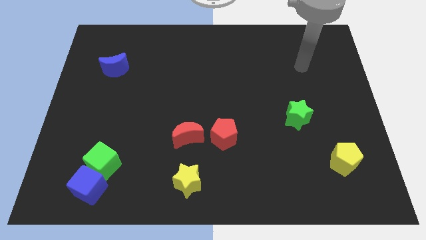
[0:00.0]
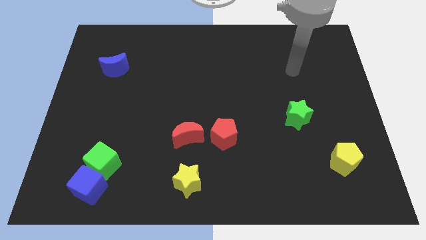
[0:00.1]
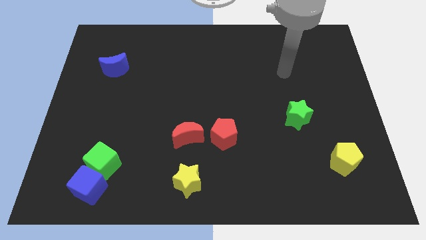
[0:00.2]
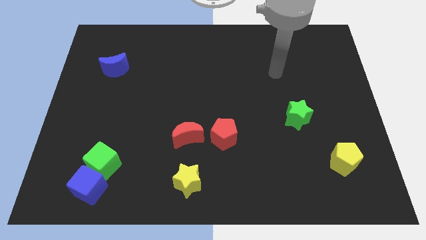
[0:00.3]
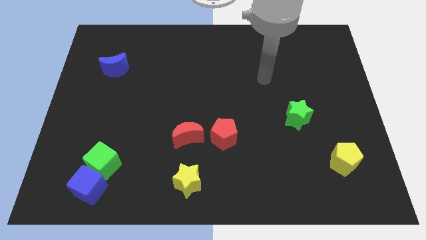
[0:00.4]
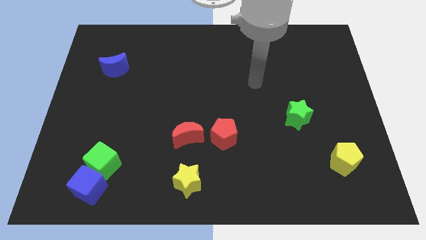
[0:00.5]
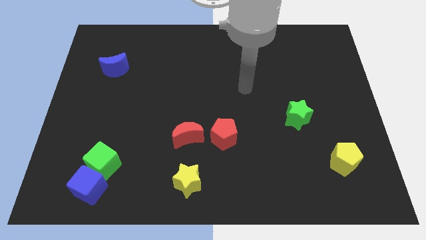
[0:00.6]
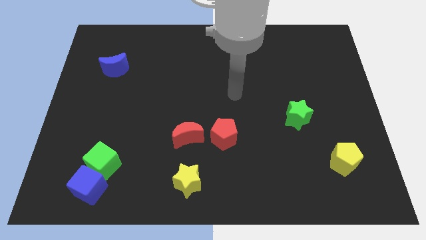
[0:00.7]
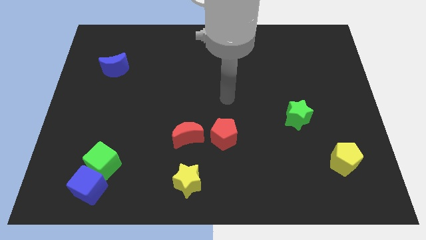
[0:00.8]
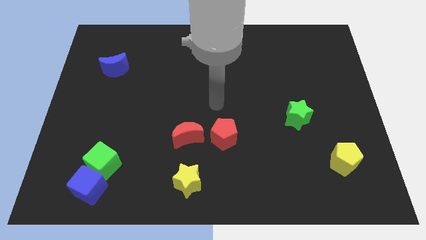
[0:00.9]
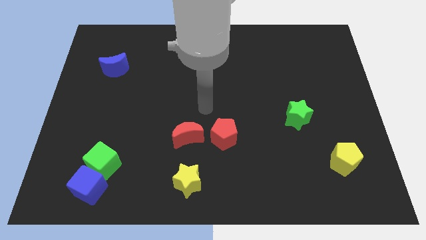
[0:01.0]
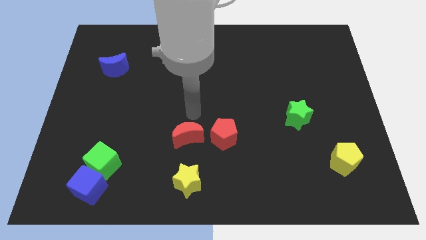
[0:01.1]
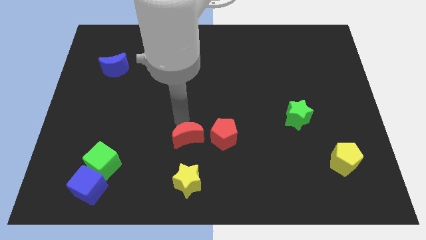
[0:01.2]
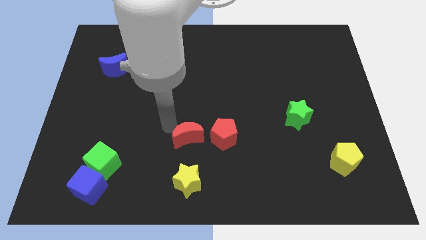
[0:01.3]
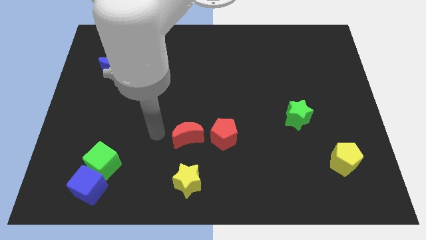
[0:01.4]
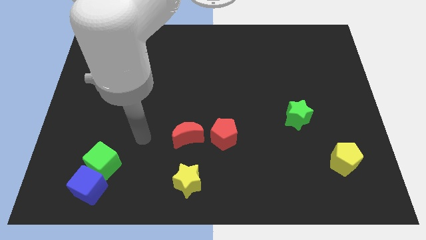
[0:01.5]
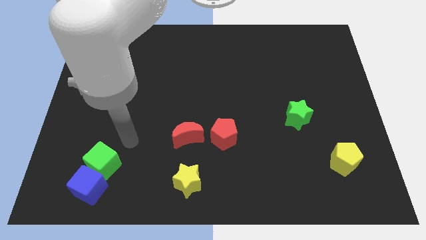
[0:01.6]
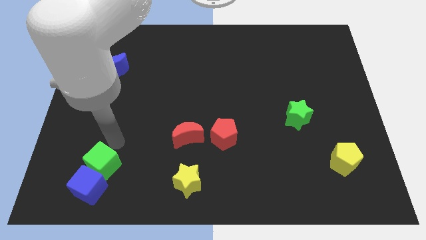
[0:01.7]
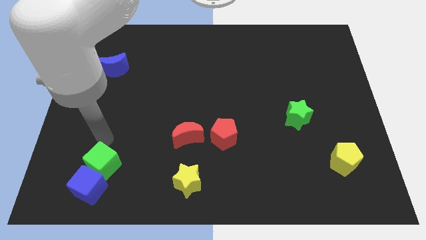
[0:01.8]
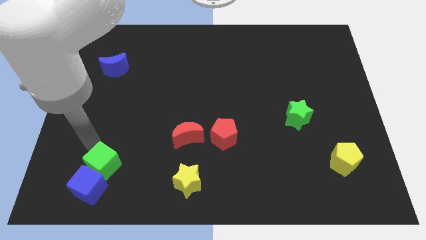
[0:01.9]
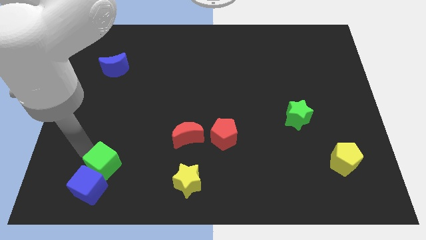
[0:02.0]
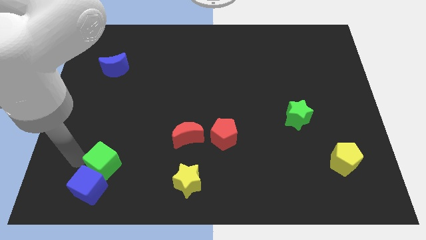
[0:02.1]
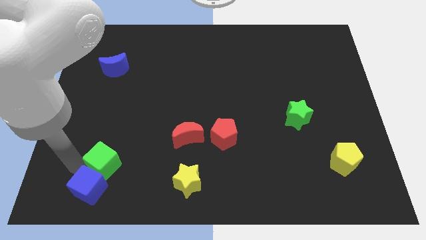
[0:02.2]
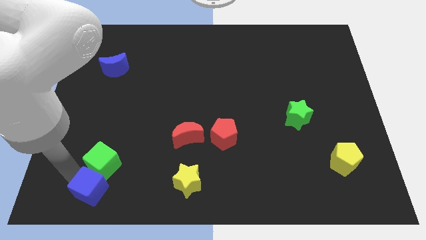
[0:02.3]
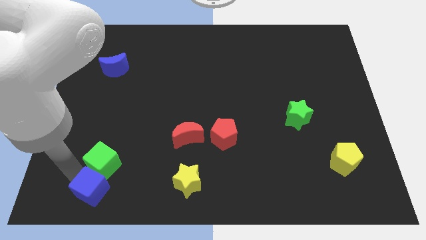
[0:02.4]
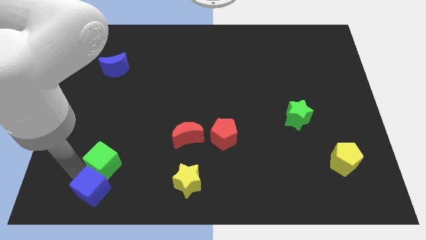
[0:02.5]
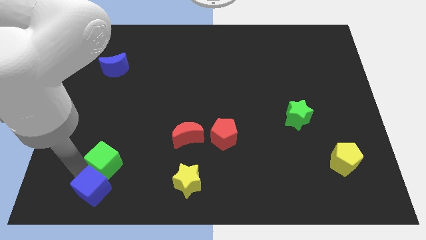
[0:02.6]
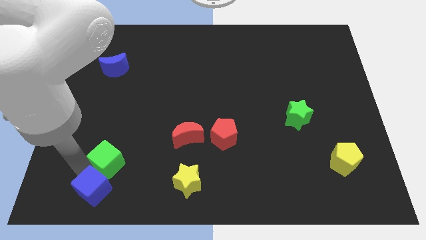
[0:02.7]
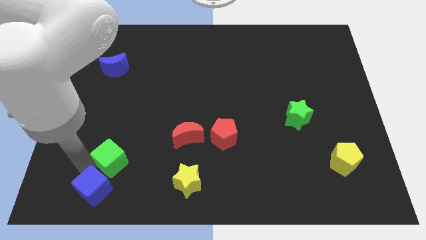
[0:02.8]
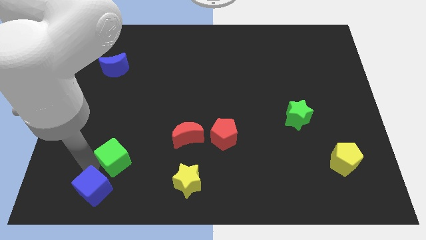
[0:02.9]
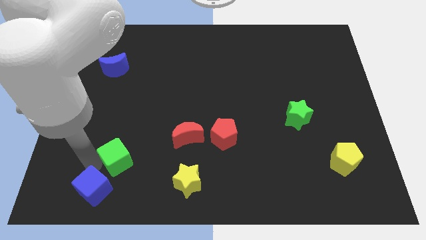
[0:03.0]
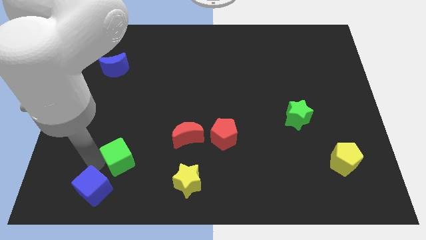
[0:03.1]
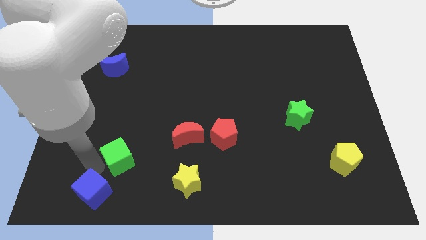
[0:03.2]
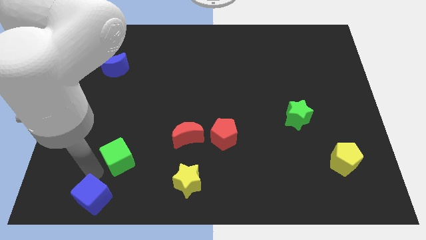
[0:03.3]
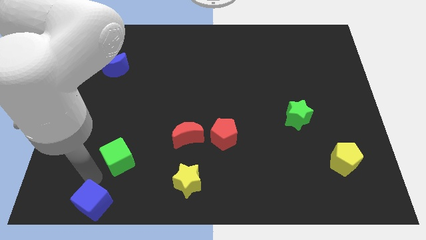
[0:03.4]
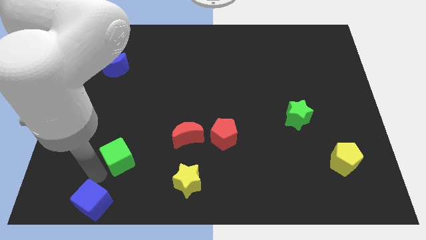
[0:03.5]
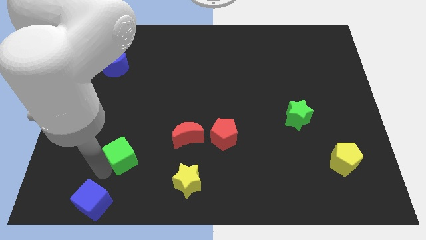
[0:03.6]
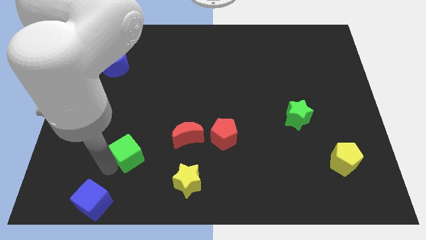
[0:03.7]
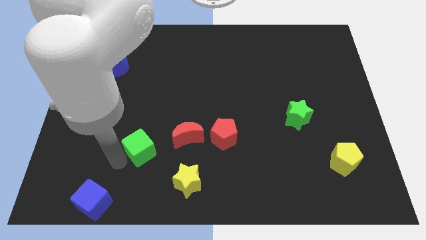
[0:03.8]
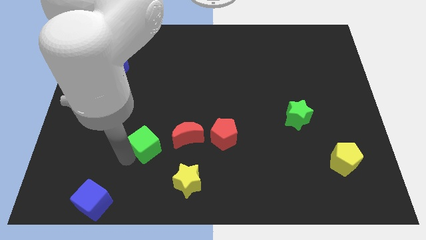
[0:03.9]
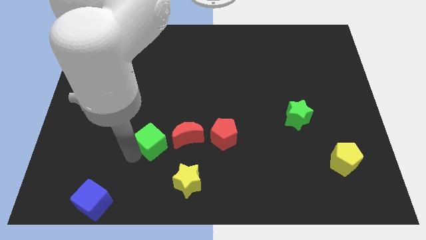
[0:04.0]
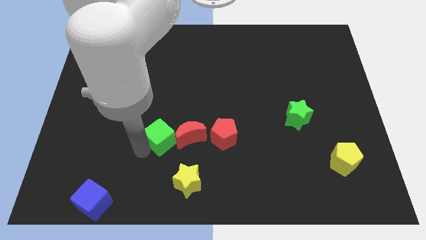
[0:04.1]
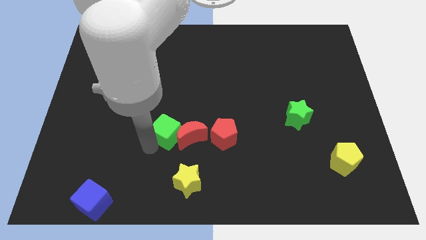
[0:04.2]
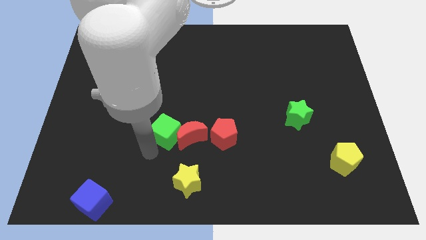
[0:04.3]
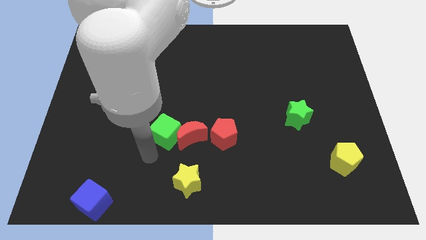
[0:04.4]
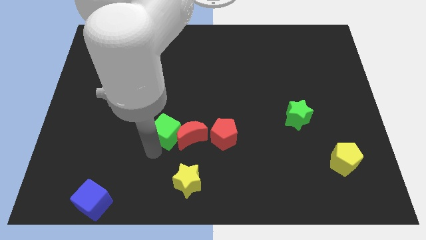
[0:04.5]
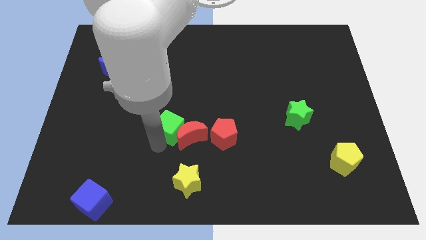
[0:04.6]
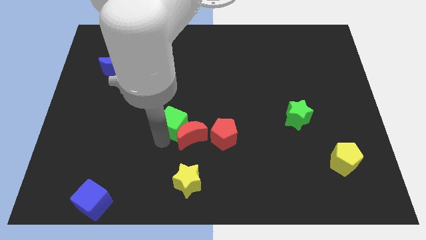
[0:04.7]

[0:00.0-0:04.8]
slide the green cube to the center

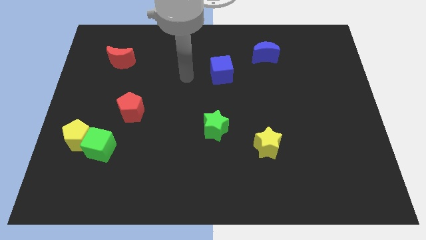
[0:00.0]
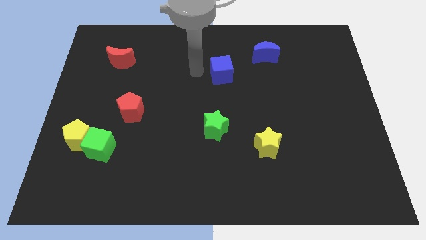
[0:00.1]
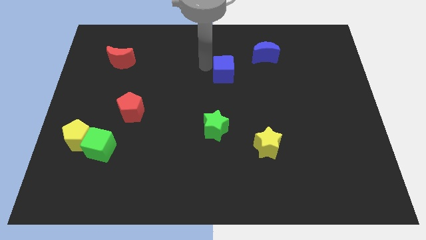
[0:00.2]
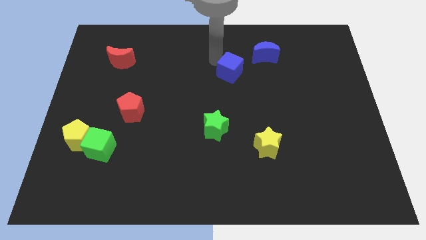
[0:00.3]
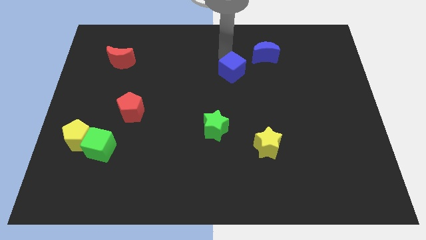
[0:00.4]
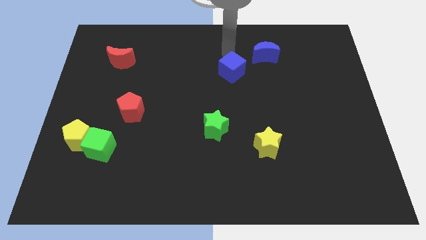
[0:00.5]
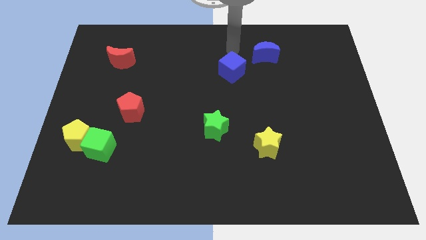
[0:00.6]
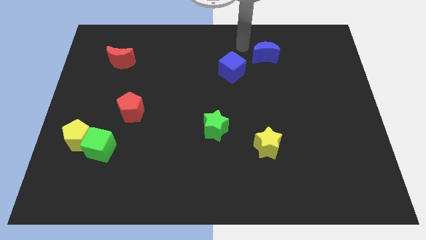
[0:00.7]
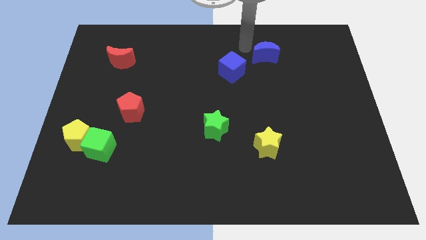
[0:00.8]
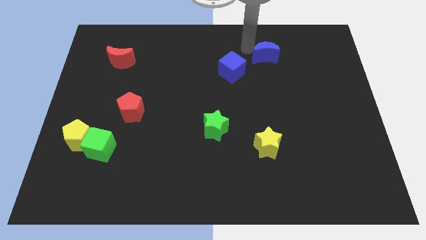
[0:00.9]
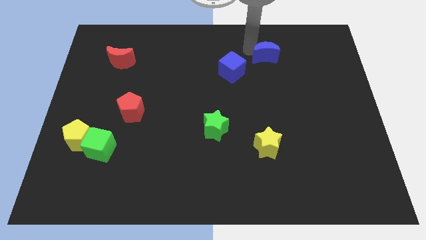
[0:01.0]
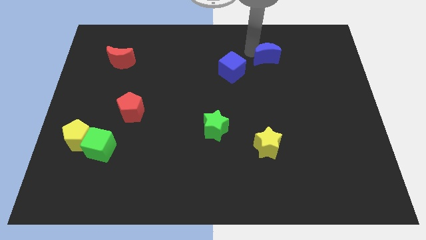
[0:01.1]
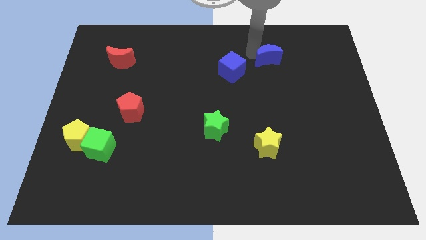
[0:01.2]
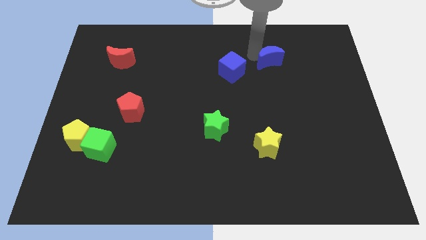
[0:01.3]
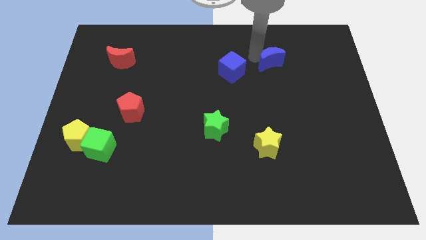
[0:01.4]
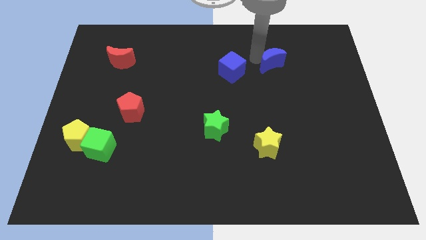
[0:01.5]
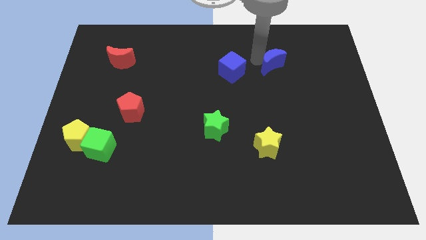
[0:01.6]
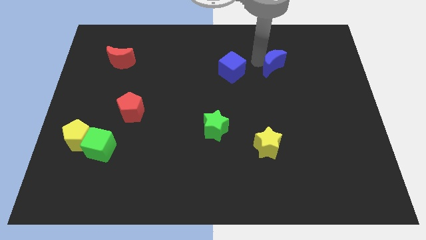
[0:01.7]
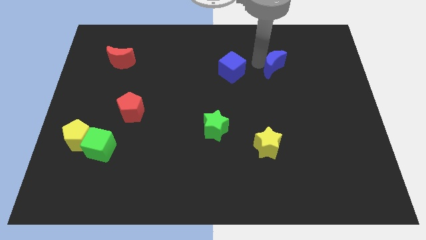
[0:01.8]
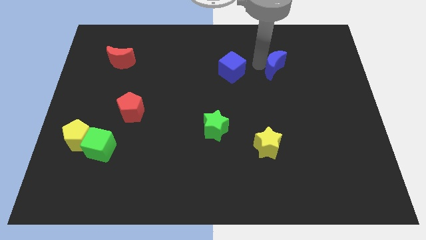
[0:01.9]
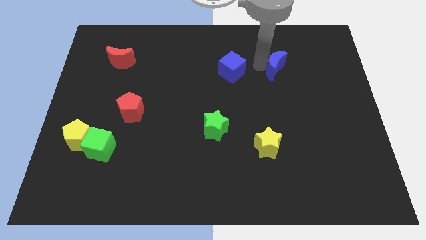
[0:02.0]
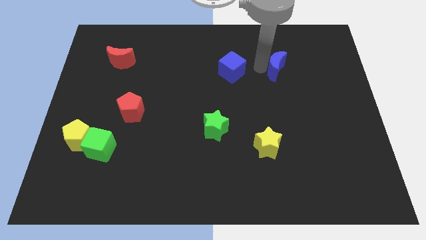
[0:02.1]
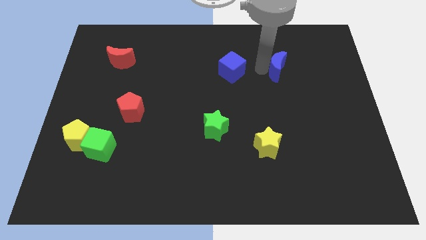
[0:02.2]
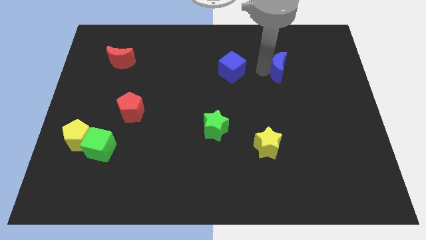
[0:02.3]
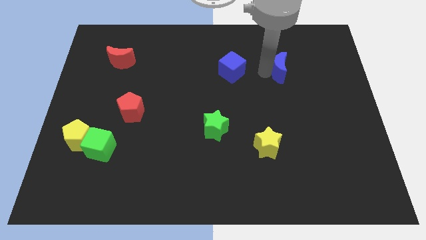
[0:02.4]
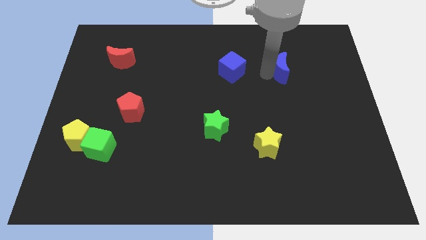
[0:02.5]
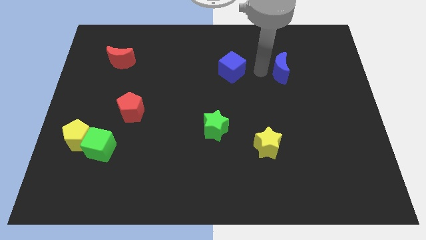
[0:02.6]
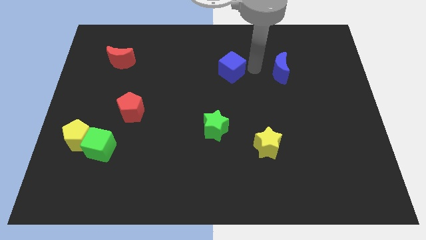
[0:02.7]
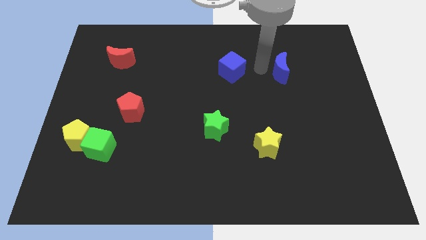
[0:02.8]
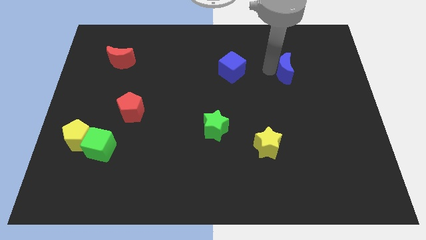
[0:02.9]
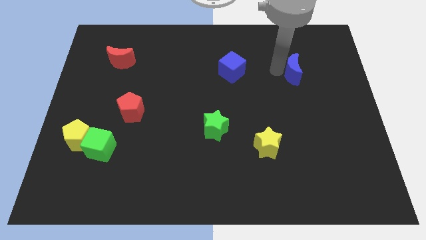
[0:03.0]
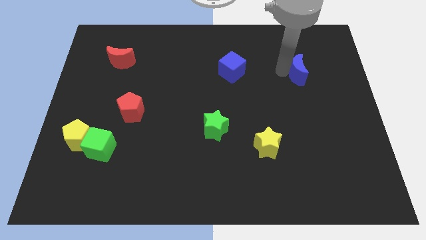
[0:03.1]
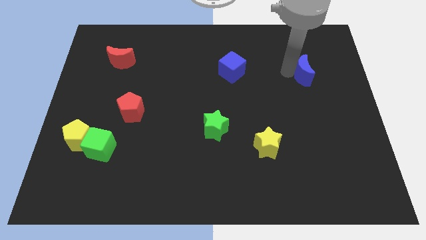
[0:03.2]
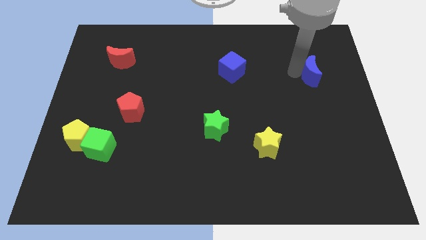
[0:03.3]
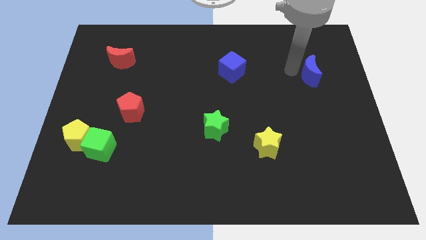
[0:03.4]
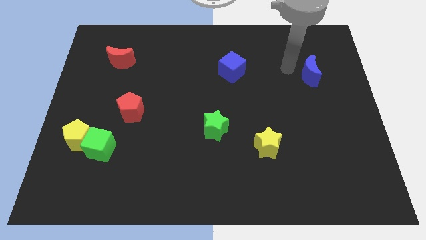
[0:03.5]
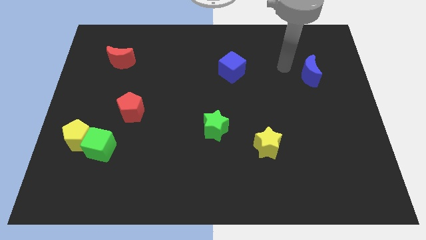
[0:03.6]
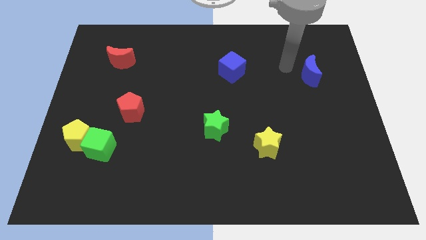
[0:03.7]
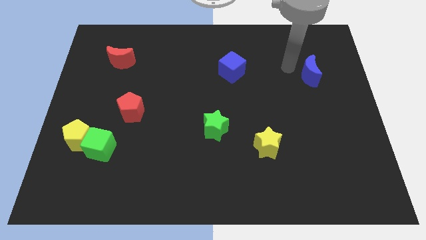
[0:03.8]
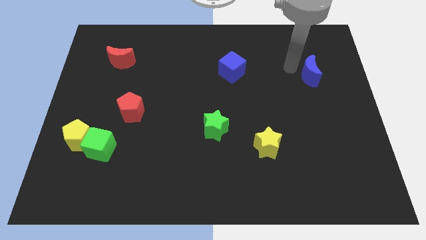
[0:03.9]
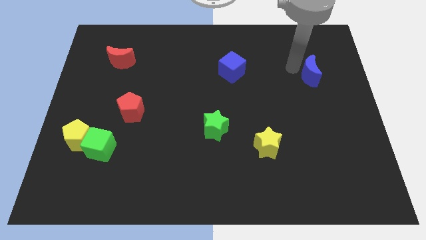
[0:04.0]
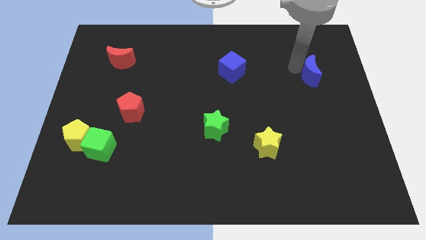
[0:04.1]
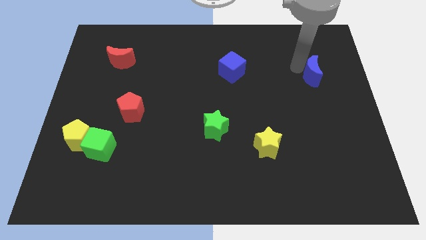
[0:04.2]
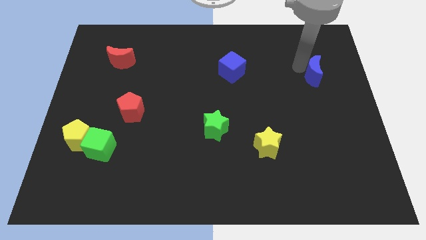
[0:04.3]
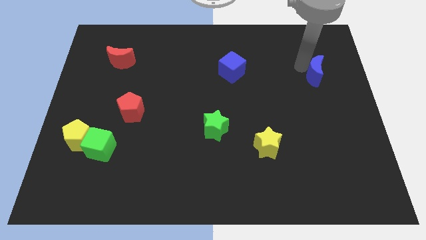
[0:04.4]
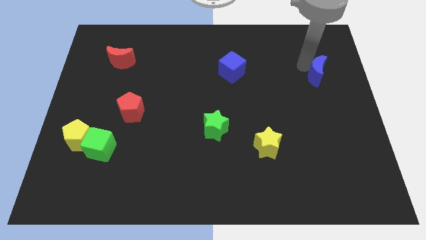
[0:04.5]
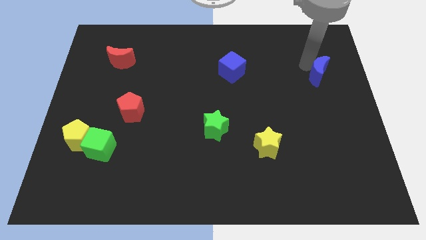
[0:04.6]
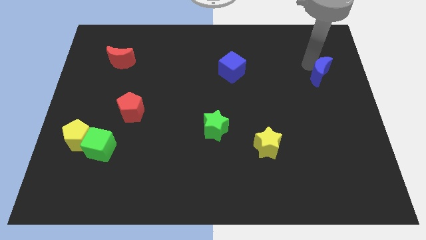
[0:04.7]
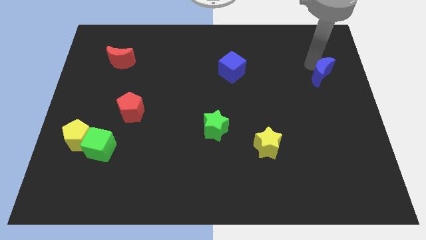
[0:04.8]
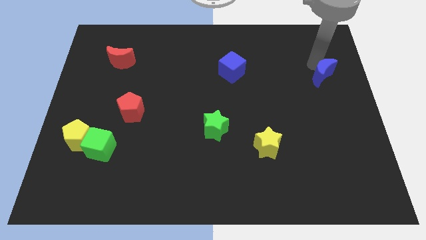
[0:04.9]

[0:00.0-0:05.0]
move the blue moon to the right side of the board
